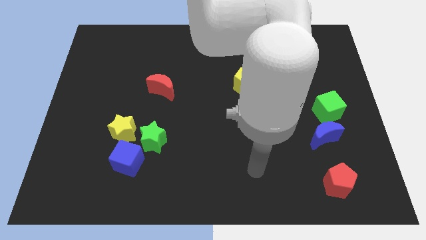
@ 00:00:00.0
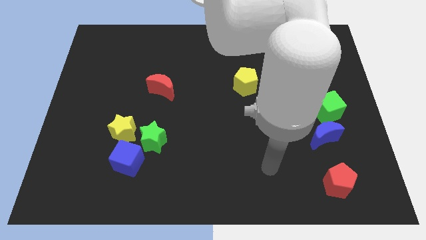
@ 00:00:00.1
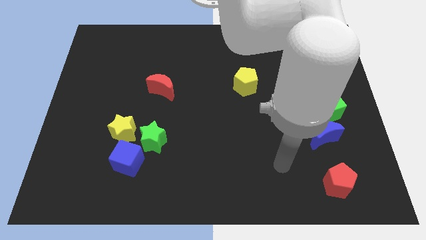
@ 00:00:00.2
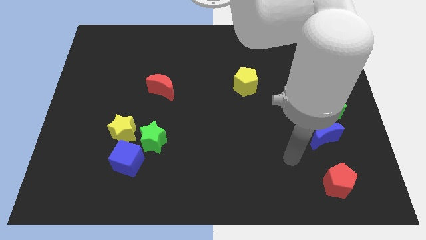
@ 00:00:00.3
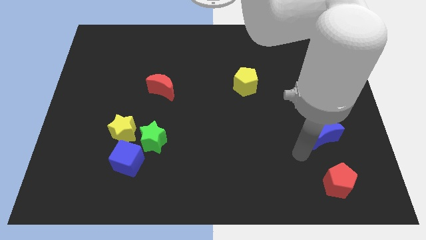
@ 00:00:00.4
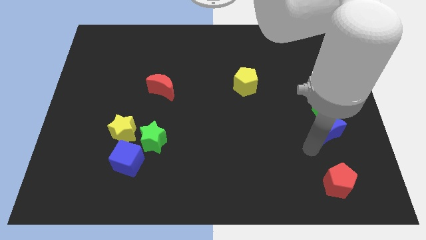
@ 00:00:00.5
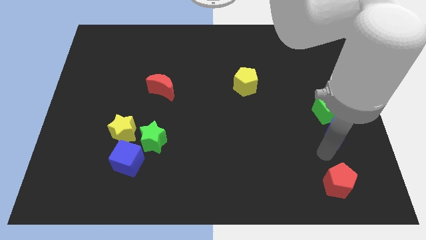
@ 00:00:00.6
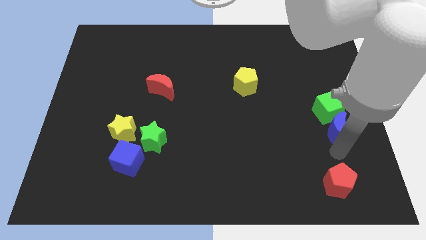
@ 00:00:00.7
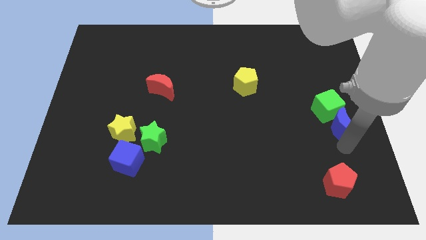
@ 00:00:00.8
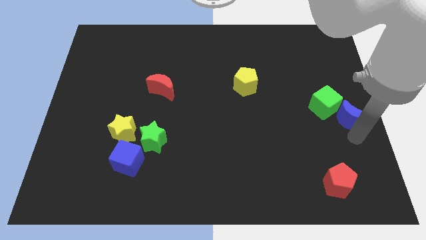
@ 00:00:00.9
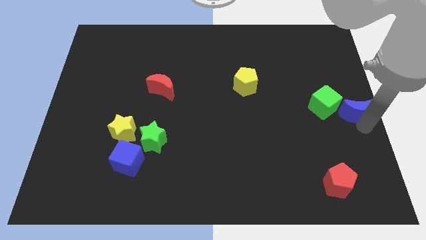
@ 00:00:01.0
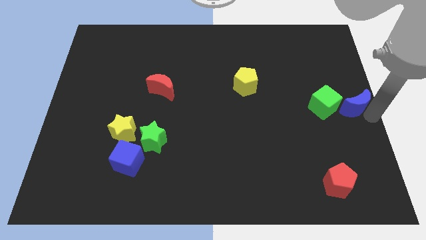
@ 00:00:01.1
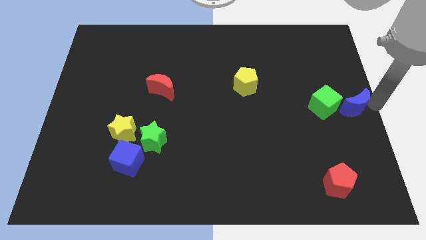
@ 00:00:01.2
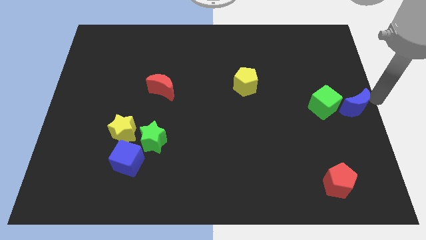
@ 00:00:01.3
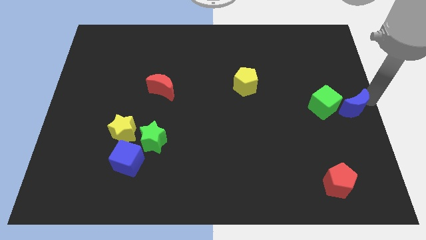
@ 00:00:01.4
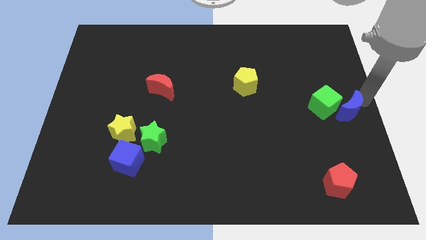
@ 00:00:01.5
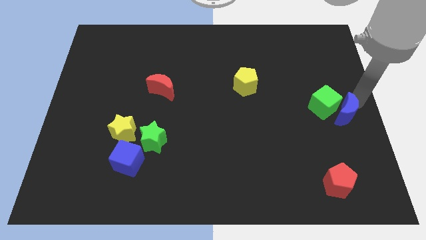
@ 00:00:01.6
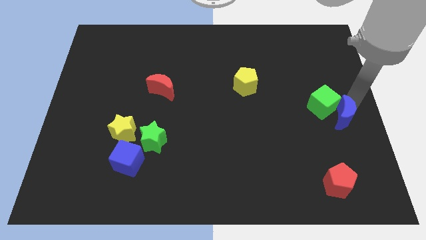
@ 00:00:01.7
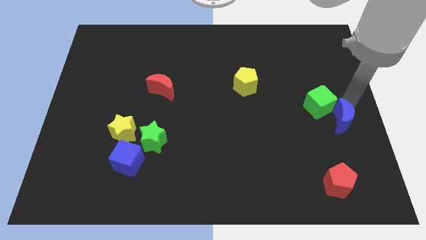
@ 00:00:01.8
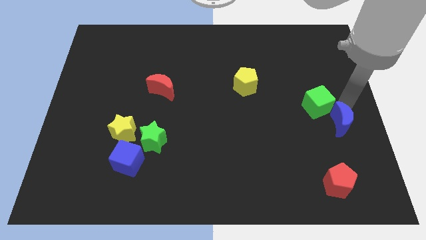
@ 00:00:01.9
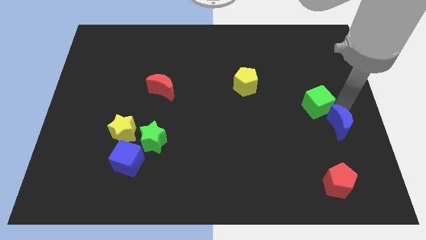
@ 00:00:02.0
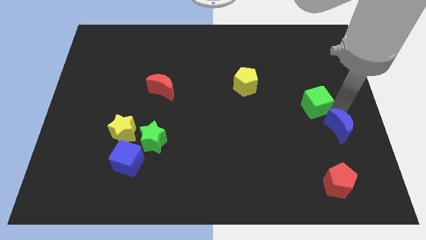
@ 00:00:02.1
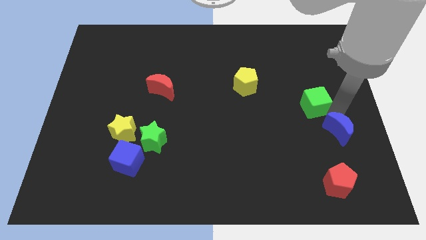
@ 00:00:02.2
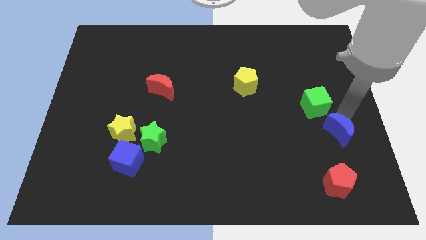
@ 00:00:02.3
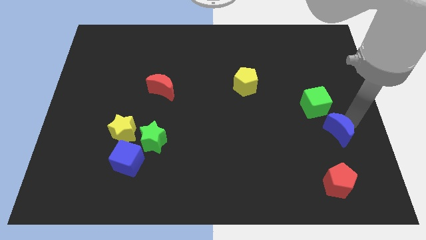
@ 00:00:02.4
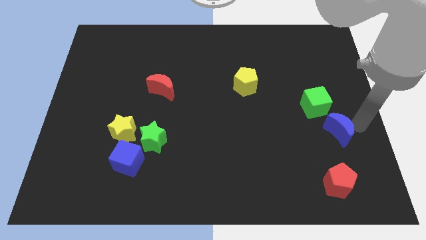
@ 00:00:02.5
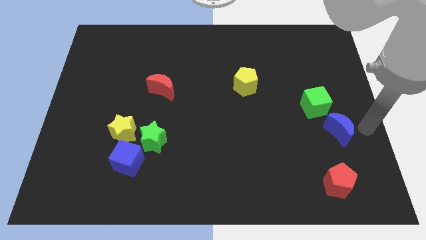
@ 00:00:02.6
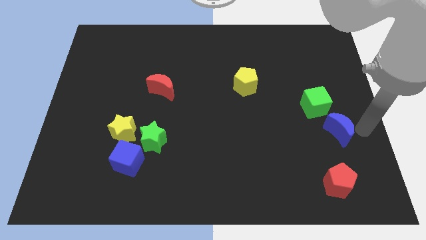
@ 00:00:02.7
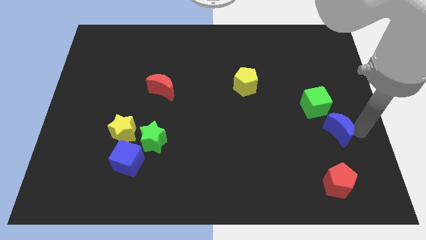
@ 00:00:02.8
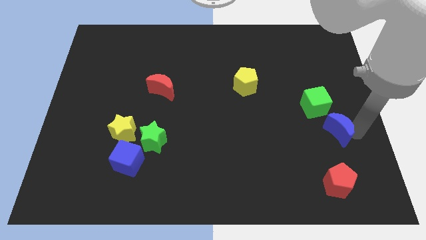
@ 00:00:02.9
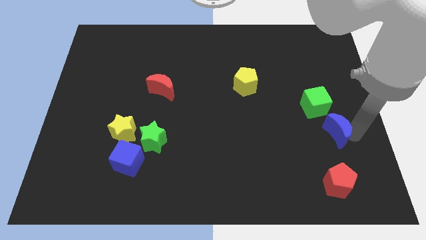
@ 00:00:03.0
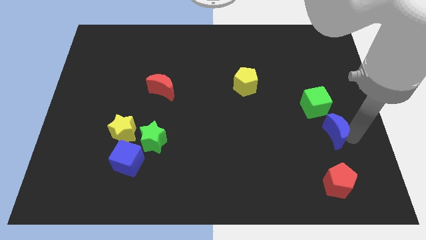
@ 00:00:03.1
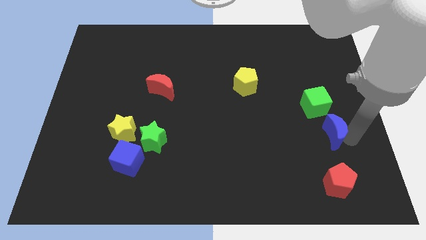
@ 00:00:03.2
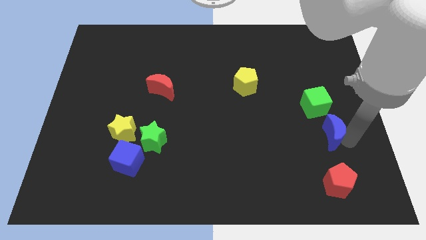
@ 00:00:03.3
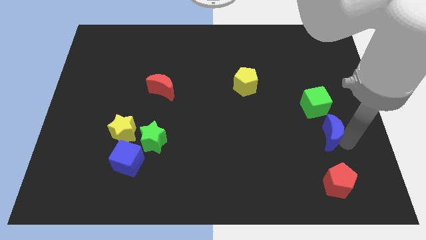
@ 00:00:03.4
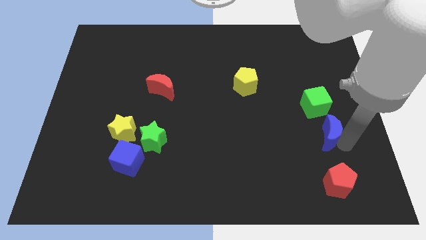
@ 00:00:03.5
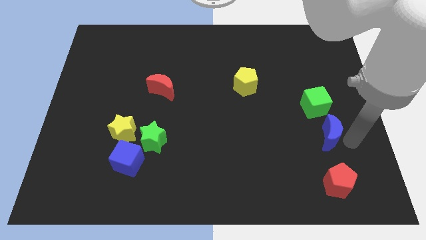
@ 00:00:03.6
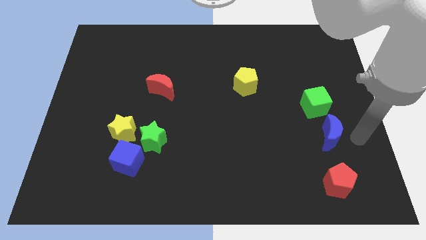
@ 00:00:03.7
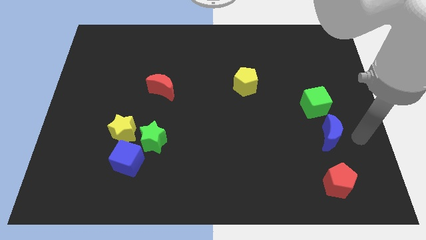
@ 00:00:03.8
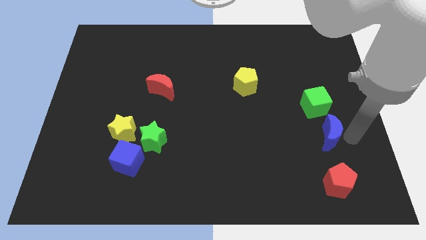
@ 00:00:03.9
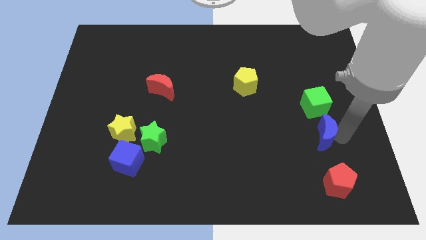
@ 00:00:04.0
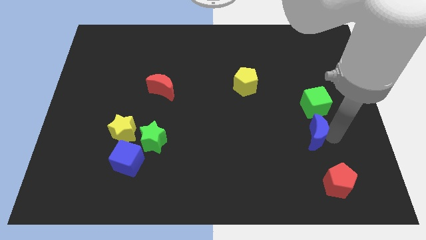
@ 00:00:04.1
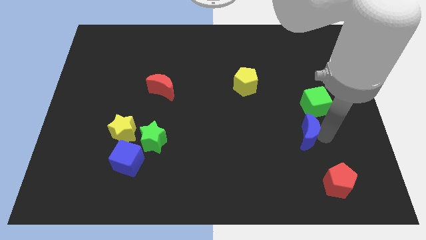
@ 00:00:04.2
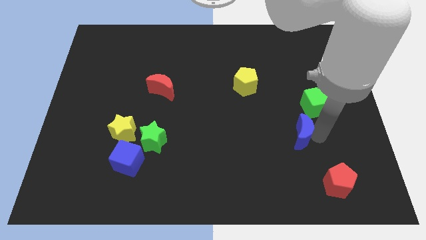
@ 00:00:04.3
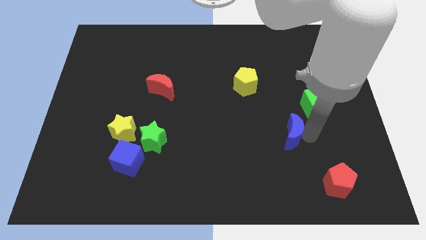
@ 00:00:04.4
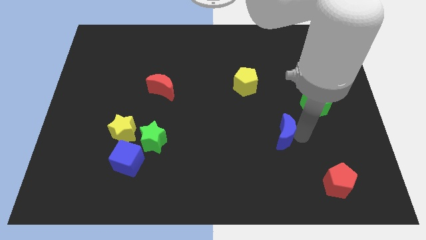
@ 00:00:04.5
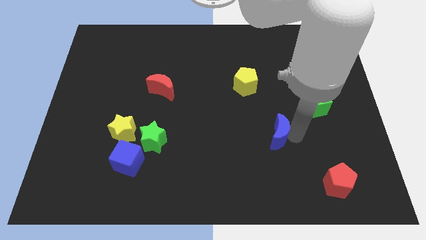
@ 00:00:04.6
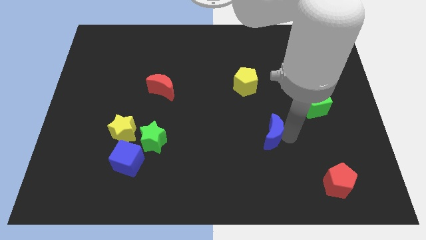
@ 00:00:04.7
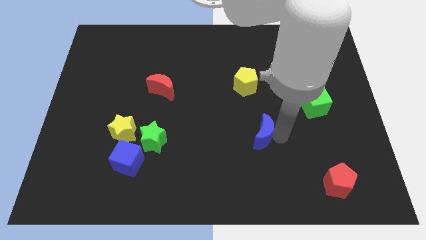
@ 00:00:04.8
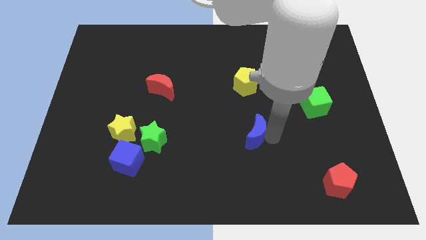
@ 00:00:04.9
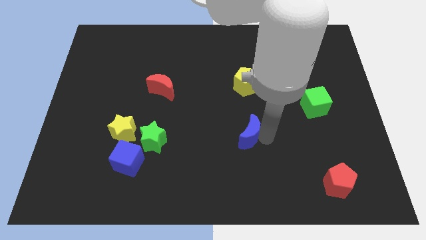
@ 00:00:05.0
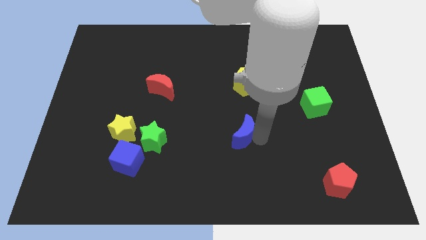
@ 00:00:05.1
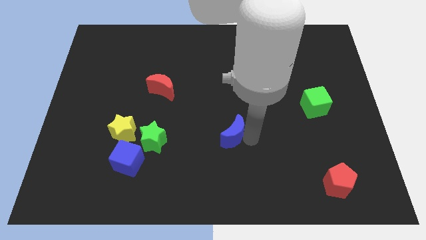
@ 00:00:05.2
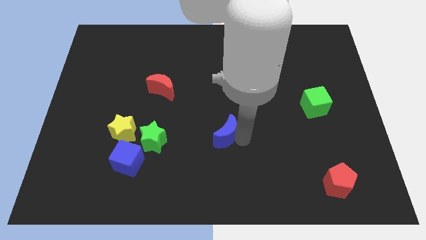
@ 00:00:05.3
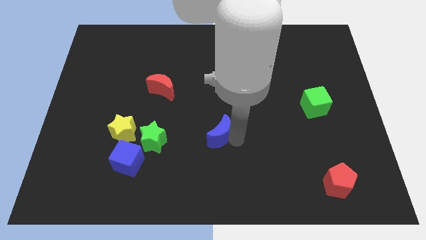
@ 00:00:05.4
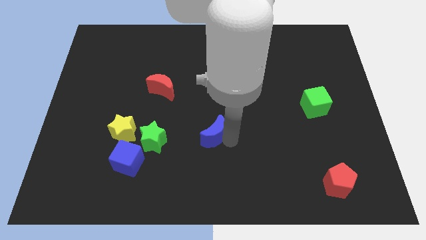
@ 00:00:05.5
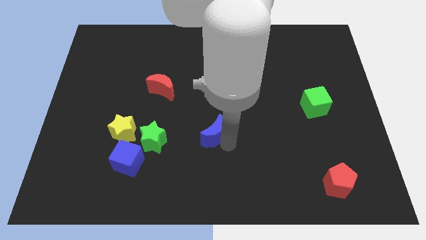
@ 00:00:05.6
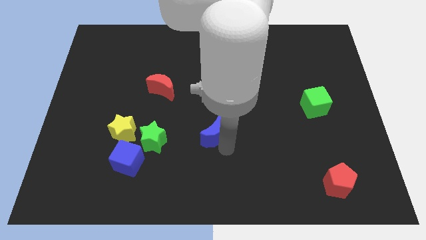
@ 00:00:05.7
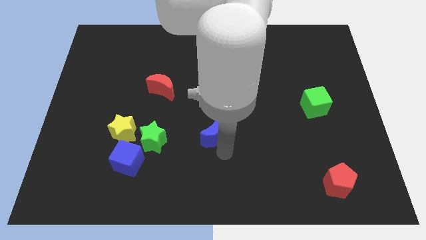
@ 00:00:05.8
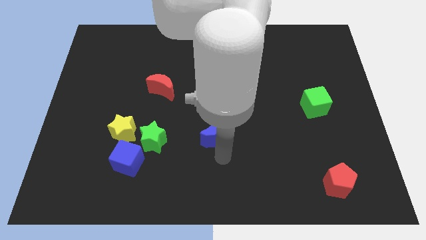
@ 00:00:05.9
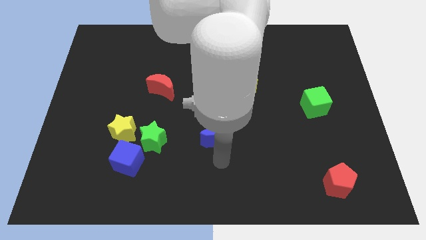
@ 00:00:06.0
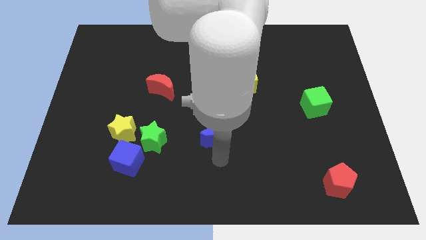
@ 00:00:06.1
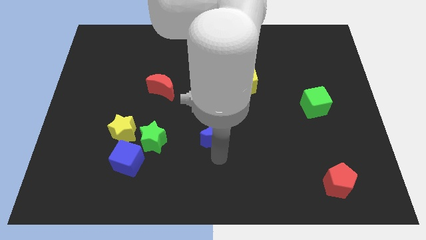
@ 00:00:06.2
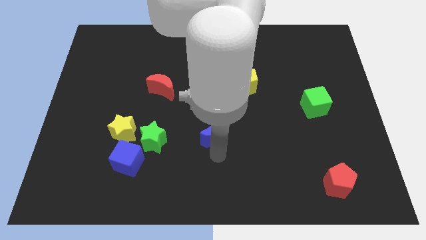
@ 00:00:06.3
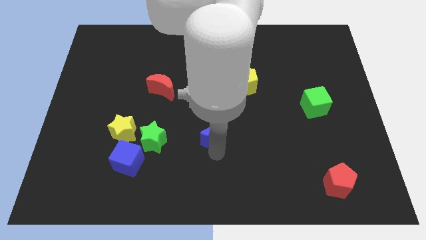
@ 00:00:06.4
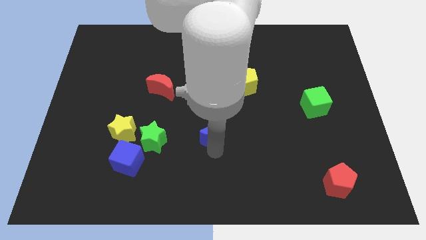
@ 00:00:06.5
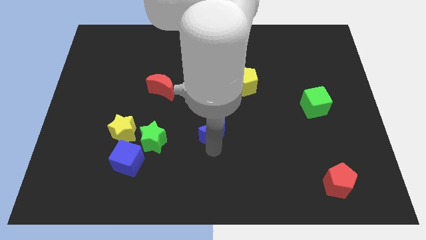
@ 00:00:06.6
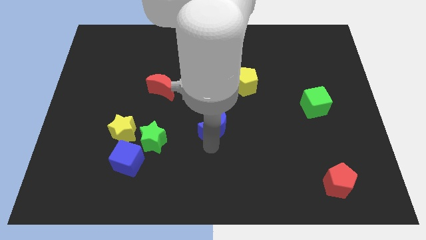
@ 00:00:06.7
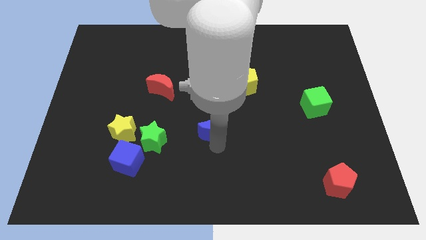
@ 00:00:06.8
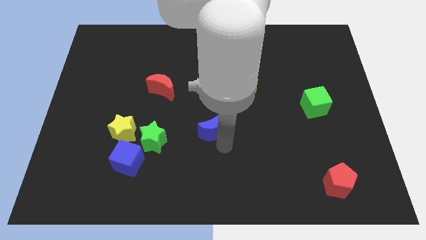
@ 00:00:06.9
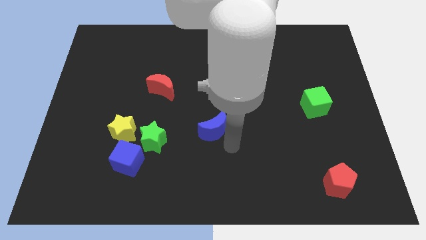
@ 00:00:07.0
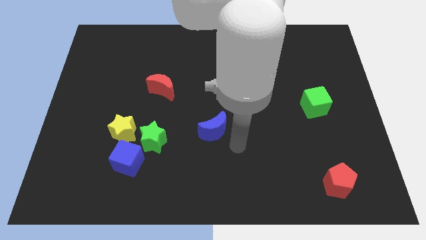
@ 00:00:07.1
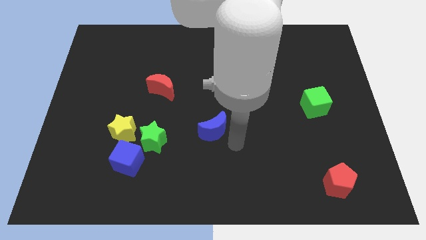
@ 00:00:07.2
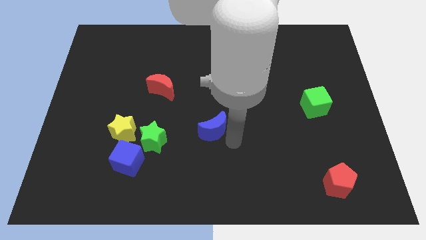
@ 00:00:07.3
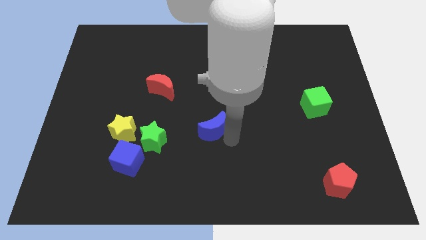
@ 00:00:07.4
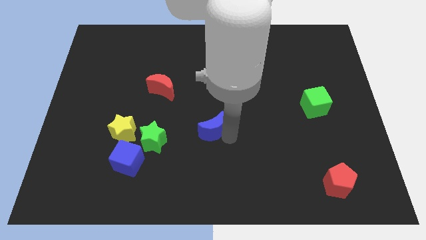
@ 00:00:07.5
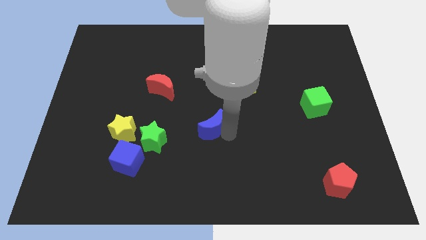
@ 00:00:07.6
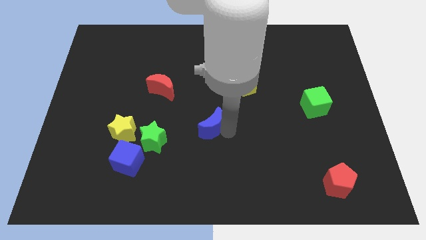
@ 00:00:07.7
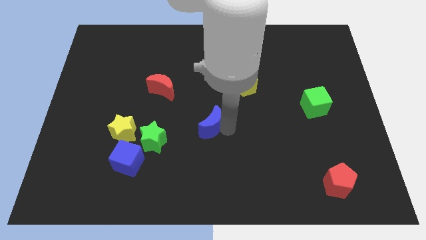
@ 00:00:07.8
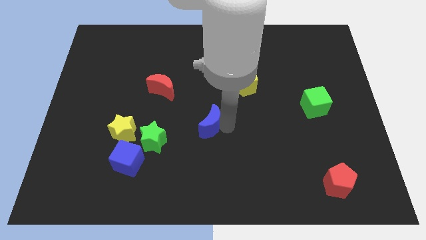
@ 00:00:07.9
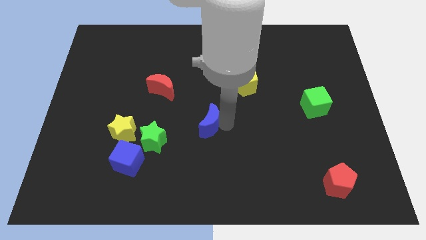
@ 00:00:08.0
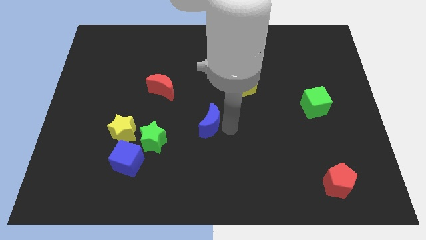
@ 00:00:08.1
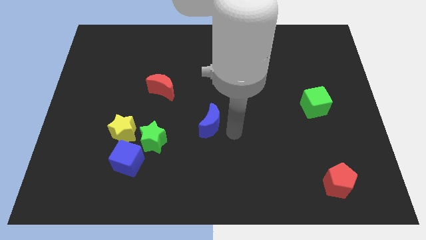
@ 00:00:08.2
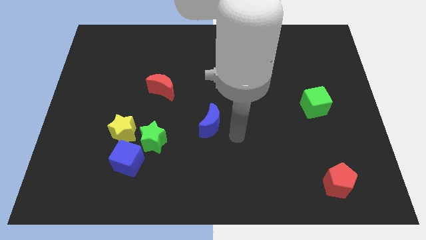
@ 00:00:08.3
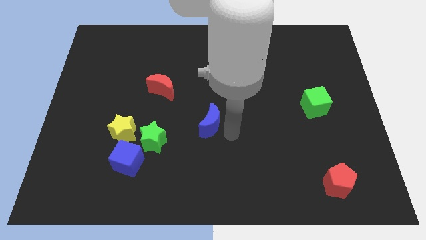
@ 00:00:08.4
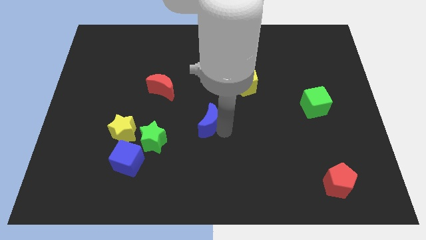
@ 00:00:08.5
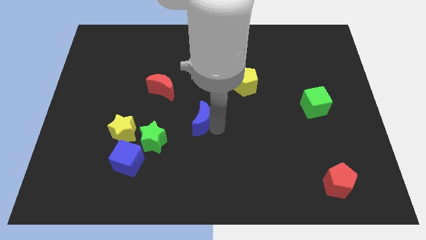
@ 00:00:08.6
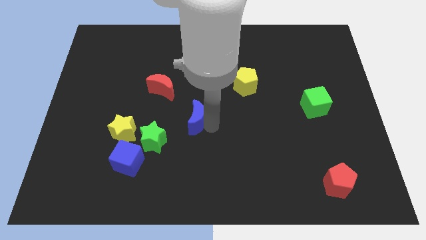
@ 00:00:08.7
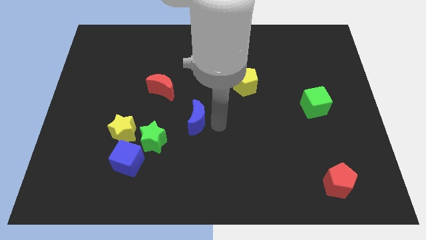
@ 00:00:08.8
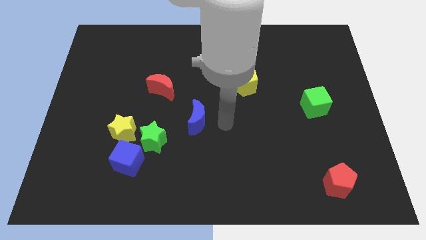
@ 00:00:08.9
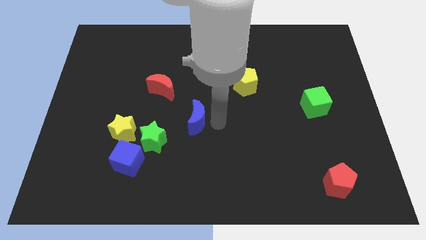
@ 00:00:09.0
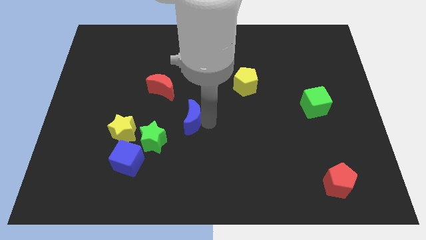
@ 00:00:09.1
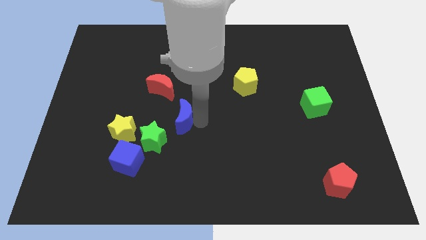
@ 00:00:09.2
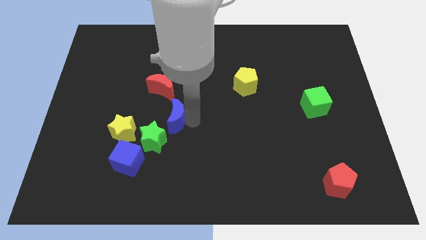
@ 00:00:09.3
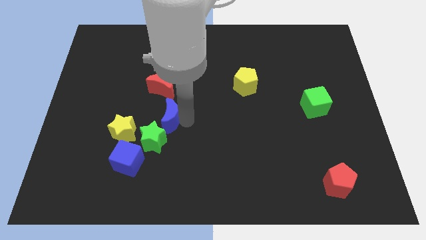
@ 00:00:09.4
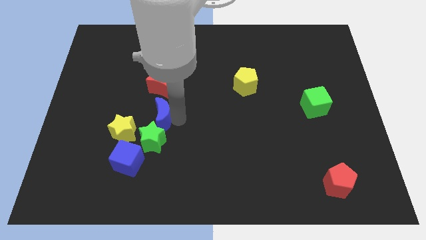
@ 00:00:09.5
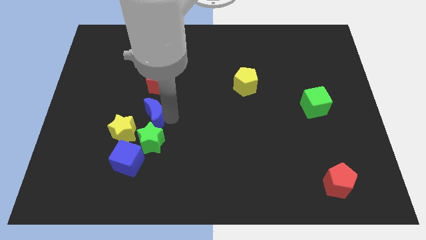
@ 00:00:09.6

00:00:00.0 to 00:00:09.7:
put the blue moon above the blue cube
